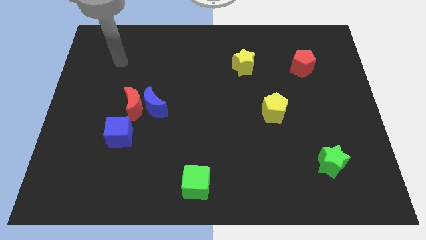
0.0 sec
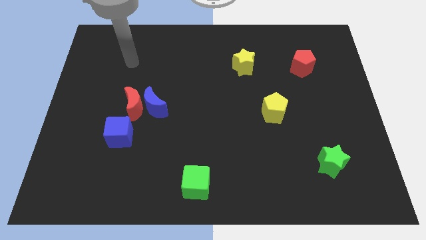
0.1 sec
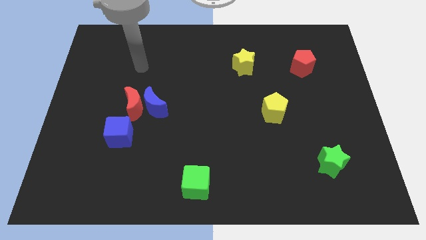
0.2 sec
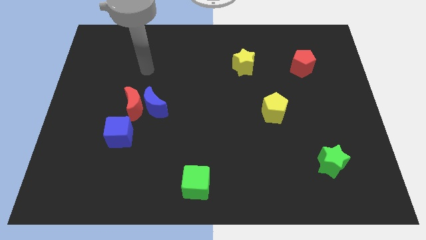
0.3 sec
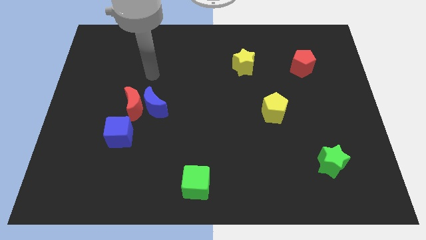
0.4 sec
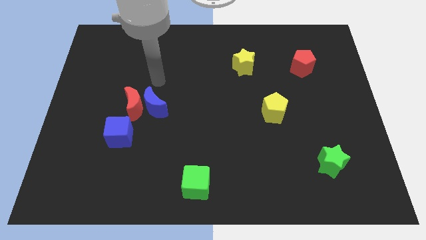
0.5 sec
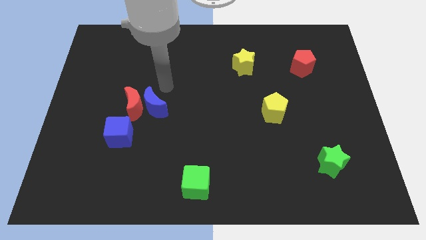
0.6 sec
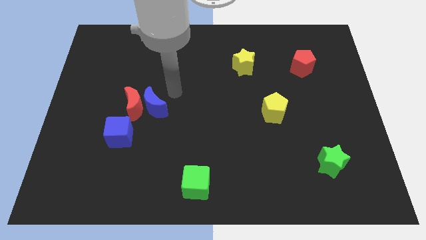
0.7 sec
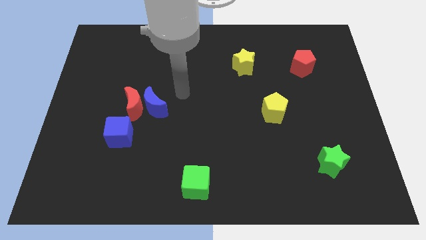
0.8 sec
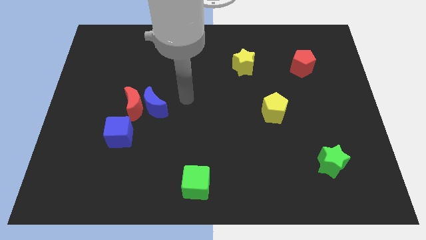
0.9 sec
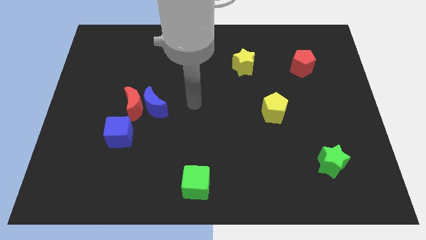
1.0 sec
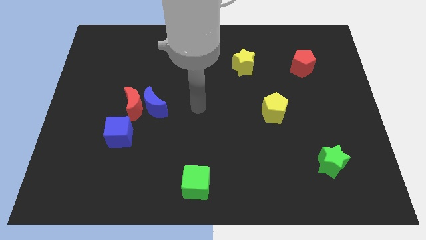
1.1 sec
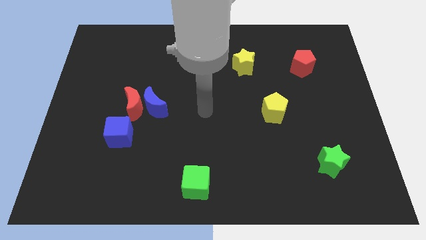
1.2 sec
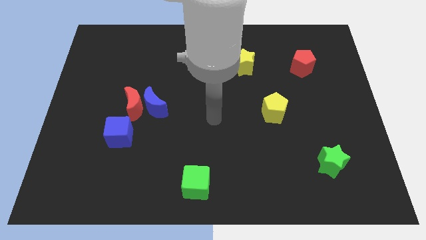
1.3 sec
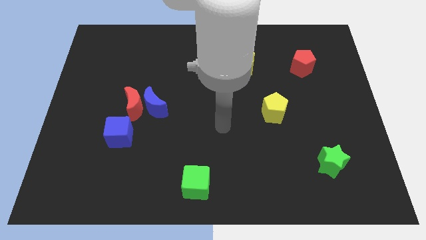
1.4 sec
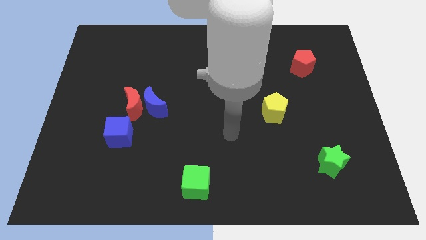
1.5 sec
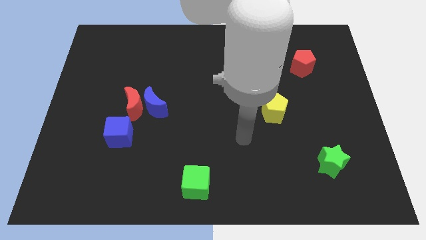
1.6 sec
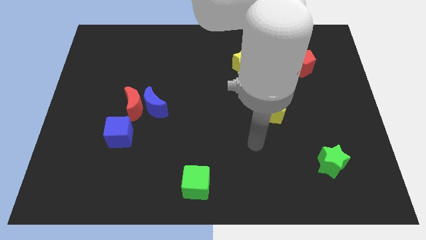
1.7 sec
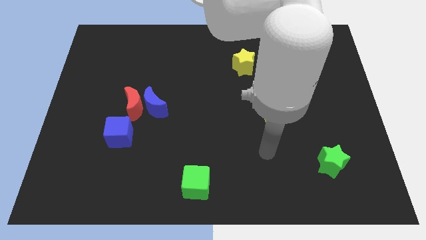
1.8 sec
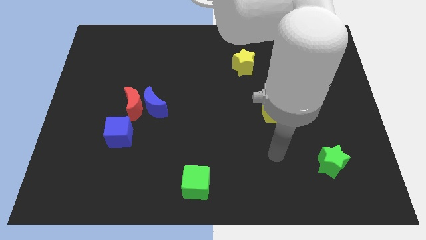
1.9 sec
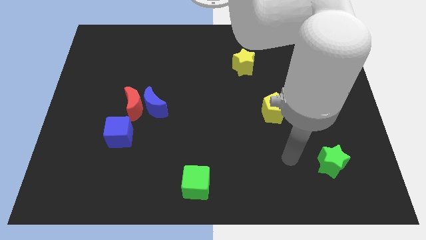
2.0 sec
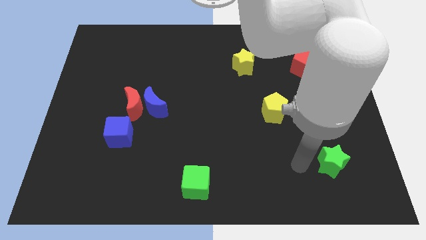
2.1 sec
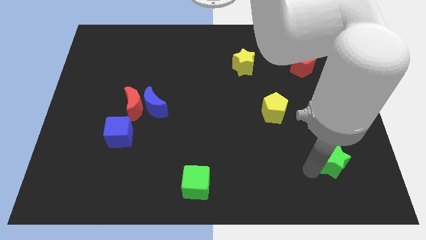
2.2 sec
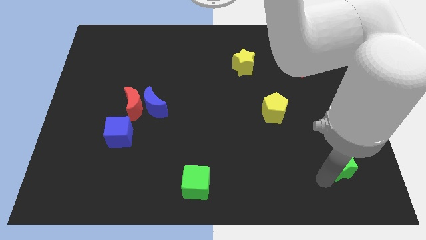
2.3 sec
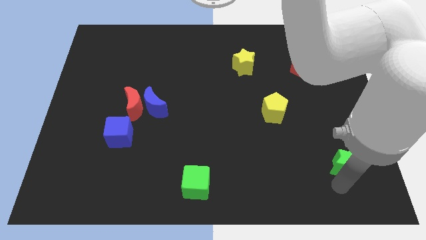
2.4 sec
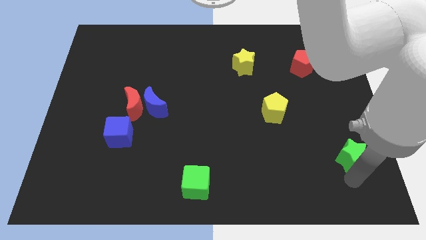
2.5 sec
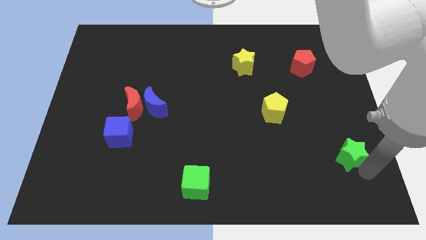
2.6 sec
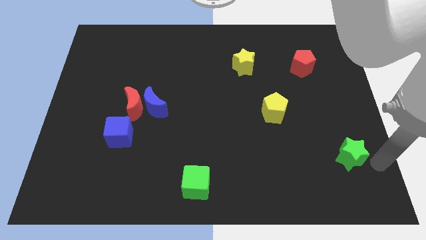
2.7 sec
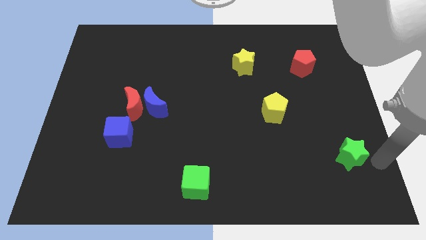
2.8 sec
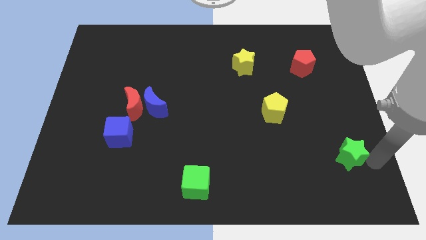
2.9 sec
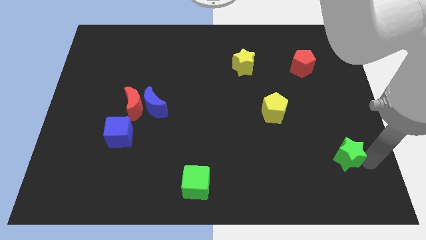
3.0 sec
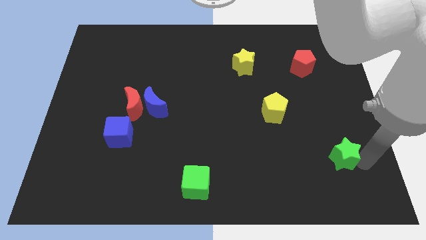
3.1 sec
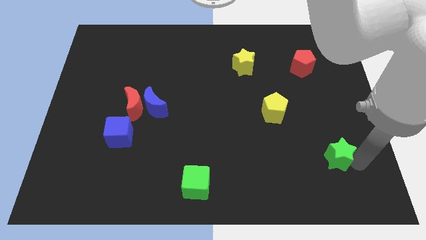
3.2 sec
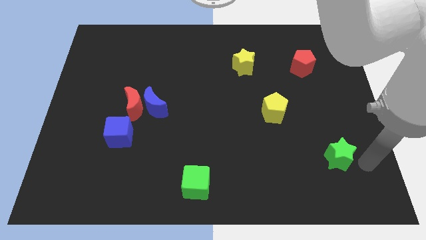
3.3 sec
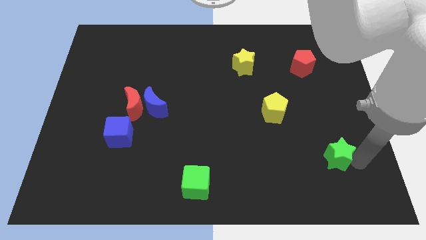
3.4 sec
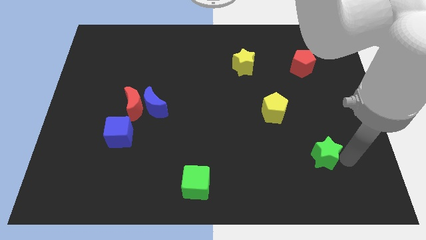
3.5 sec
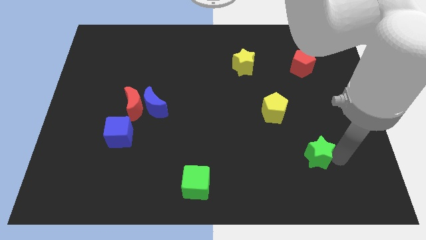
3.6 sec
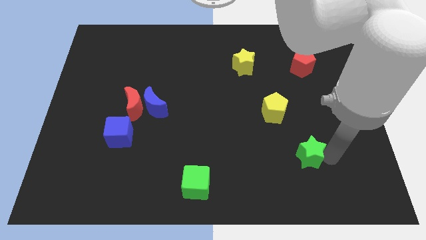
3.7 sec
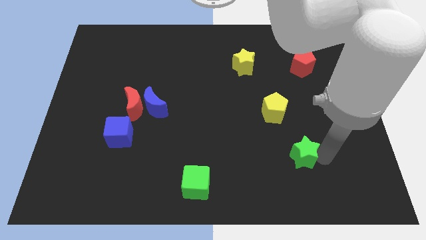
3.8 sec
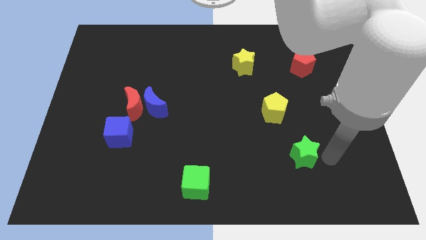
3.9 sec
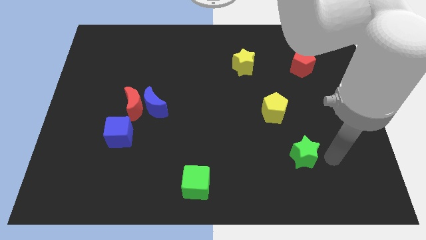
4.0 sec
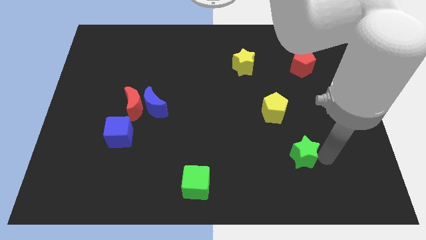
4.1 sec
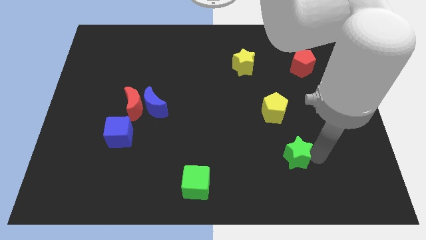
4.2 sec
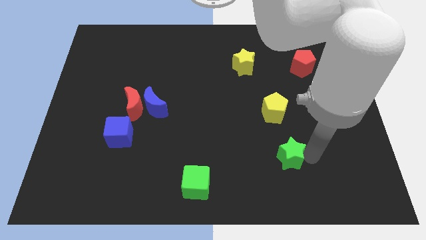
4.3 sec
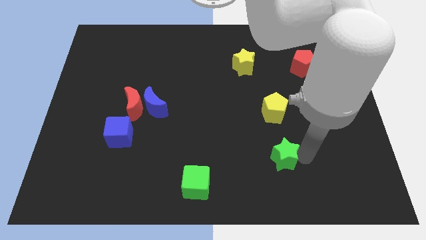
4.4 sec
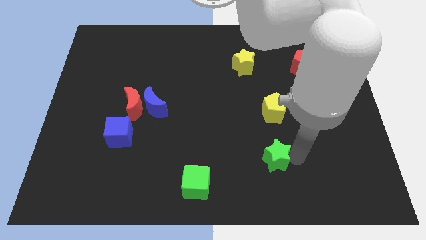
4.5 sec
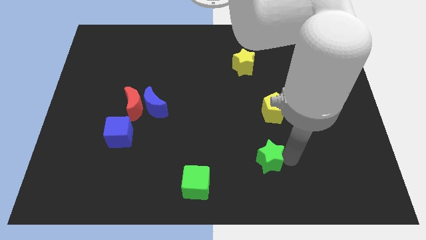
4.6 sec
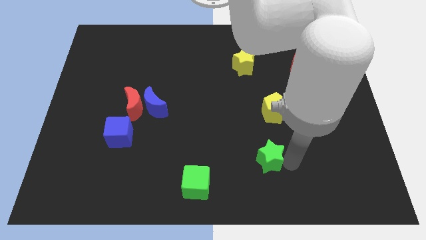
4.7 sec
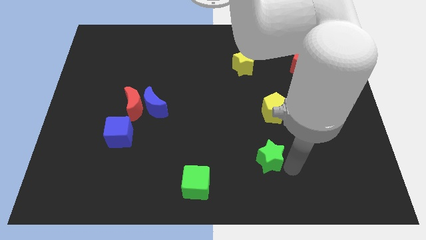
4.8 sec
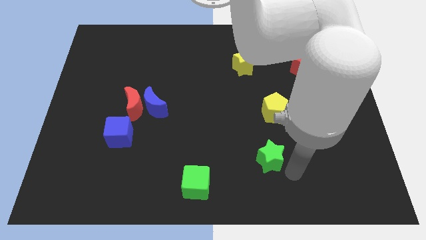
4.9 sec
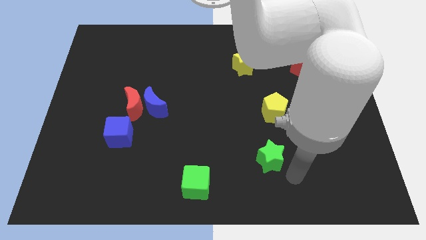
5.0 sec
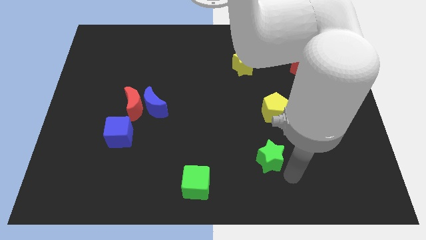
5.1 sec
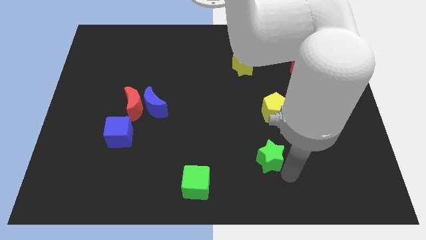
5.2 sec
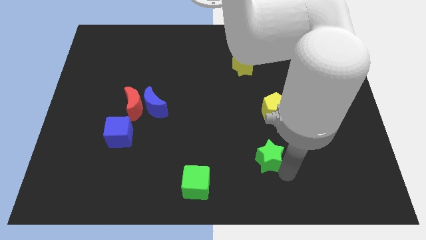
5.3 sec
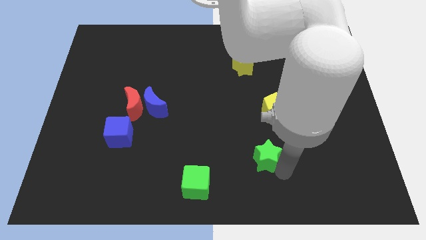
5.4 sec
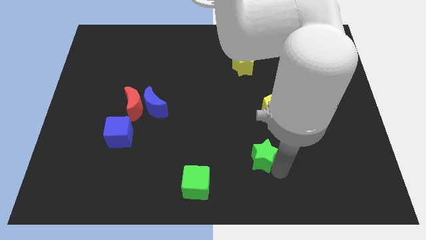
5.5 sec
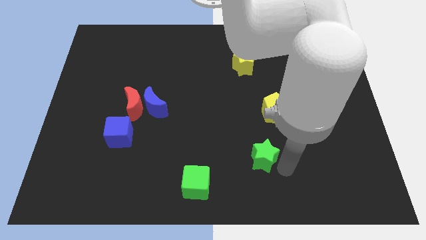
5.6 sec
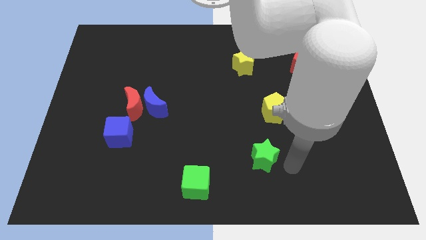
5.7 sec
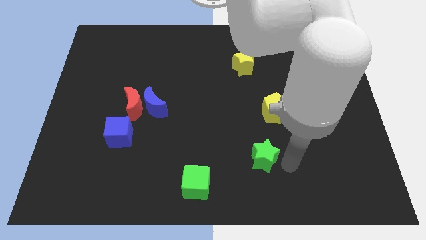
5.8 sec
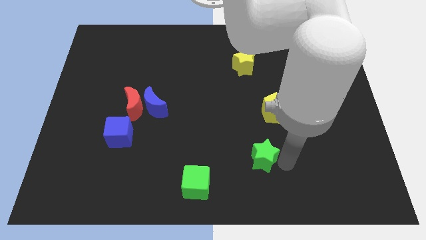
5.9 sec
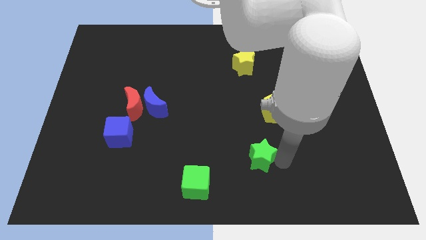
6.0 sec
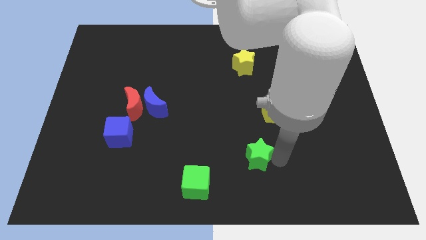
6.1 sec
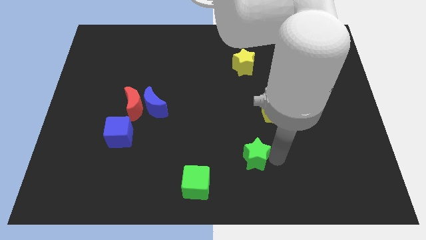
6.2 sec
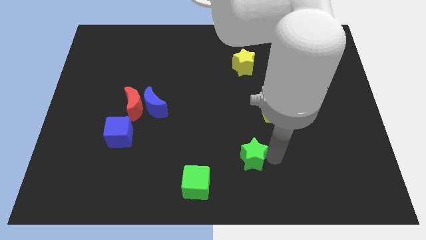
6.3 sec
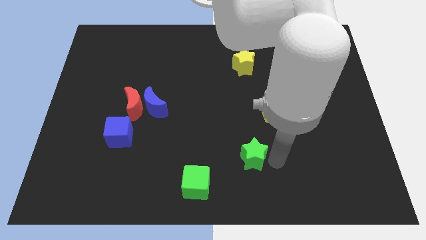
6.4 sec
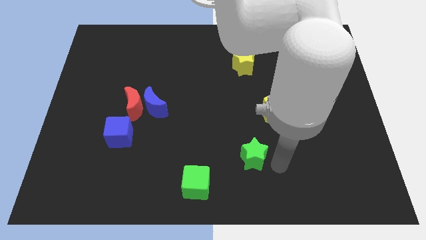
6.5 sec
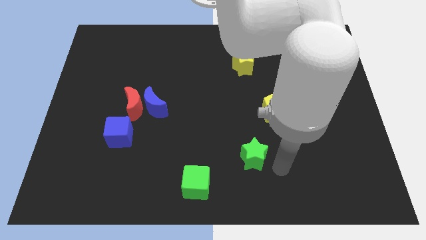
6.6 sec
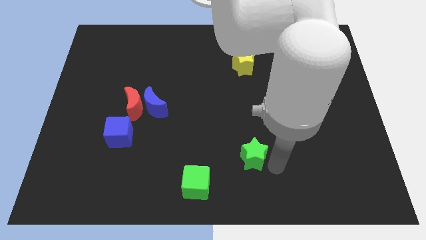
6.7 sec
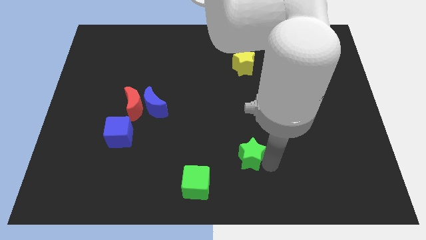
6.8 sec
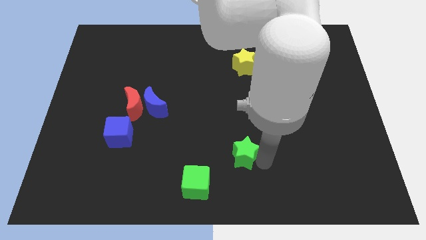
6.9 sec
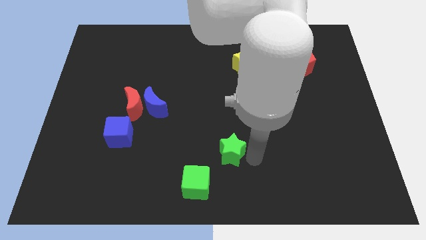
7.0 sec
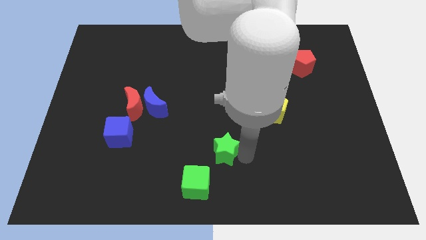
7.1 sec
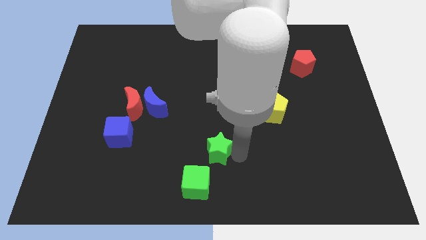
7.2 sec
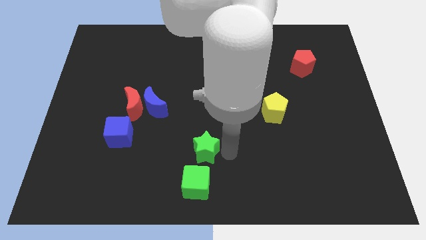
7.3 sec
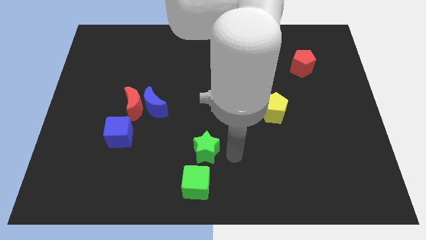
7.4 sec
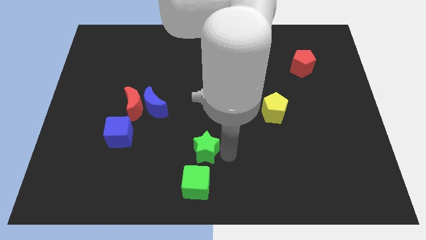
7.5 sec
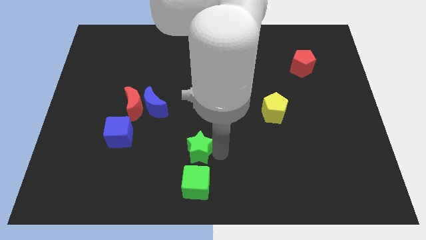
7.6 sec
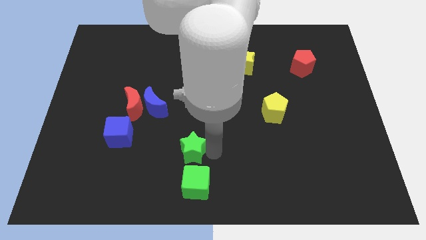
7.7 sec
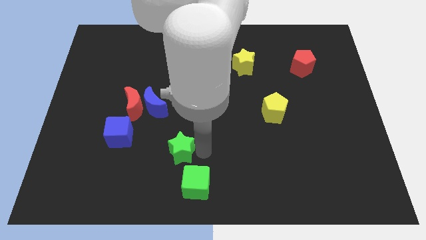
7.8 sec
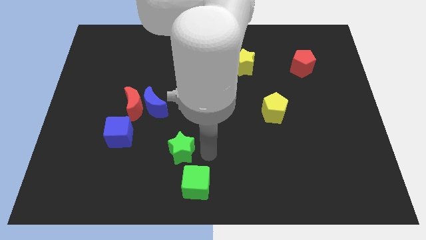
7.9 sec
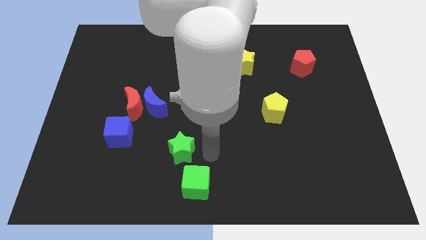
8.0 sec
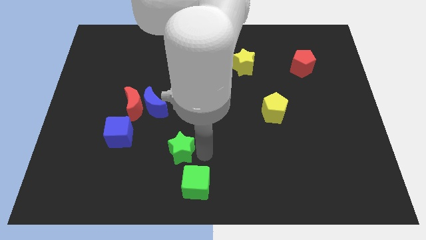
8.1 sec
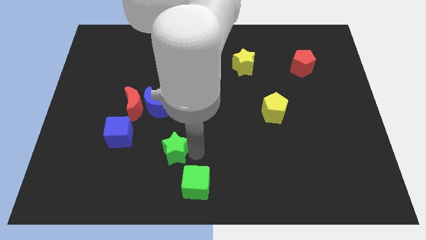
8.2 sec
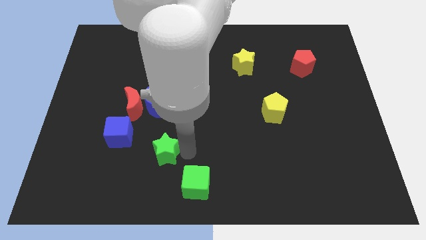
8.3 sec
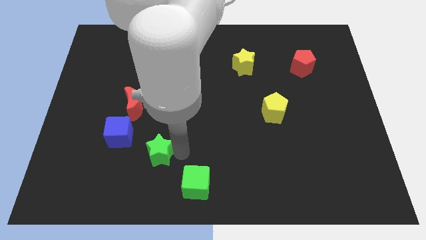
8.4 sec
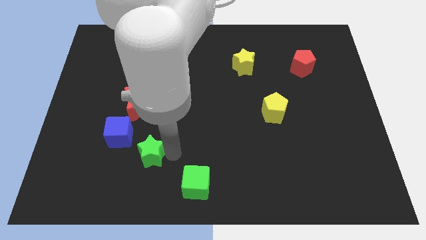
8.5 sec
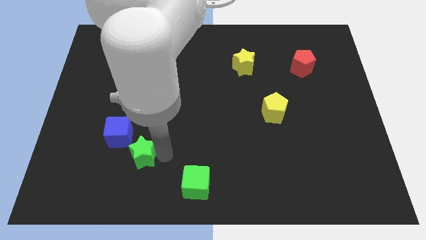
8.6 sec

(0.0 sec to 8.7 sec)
slide the green star to the bottom side of the red moon
